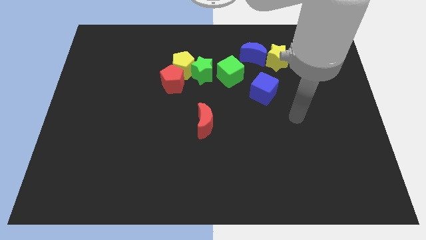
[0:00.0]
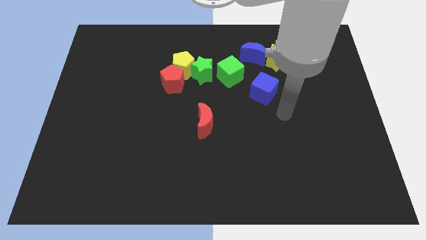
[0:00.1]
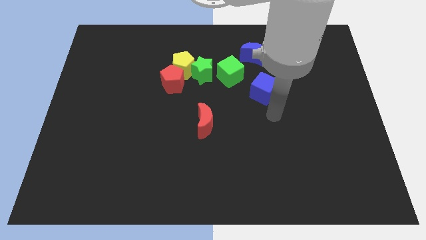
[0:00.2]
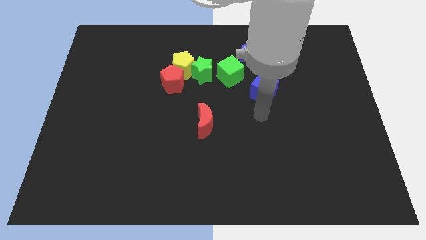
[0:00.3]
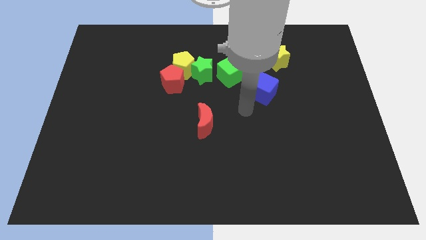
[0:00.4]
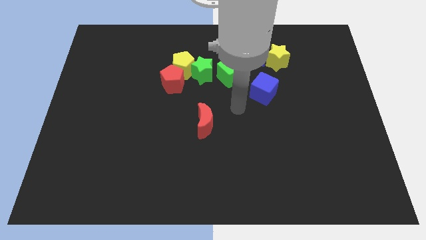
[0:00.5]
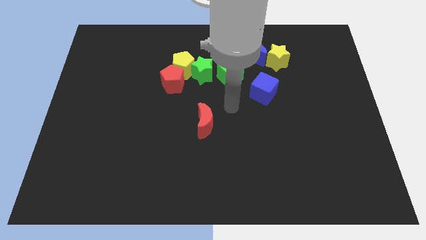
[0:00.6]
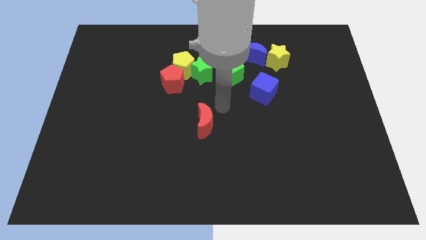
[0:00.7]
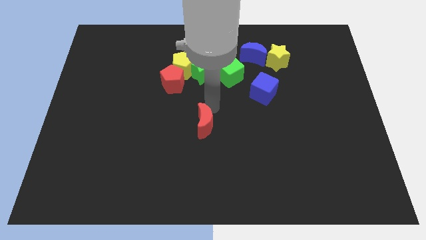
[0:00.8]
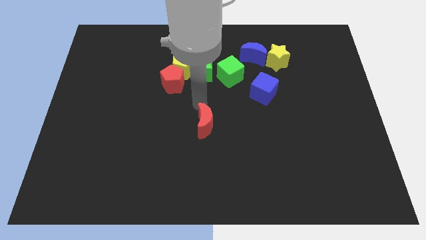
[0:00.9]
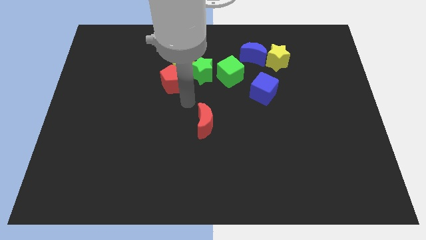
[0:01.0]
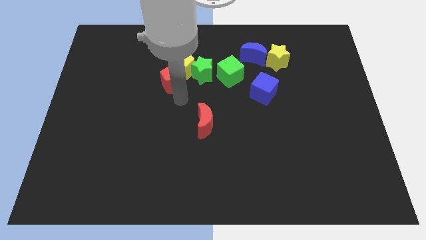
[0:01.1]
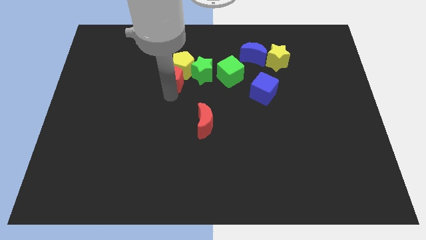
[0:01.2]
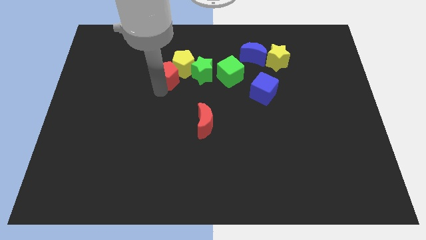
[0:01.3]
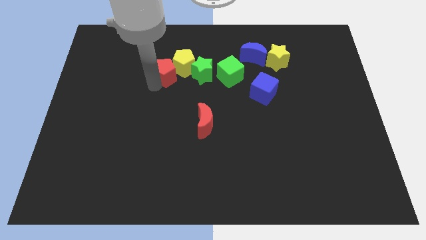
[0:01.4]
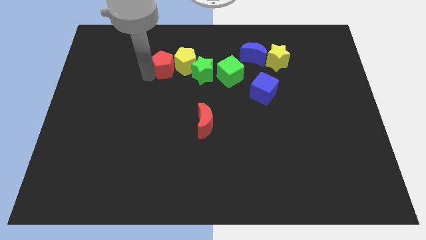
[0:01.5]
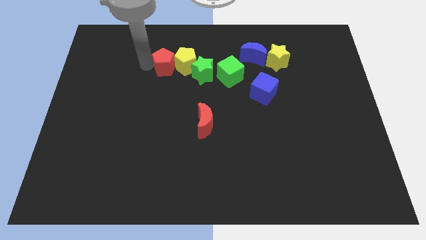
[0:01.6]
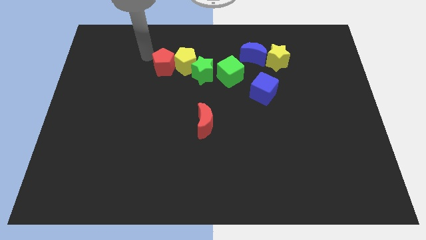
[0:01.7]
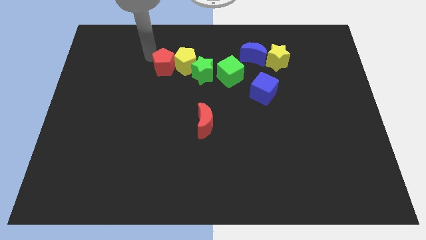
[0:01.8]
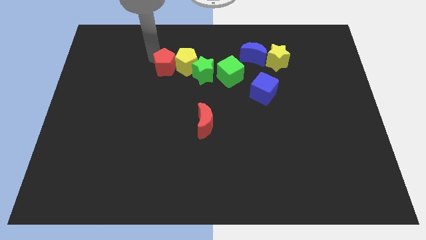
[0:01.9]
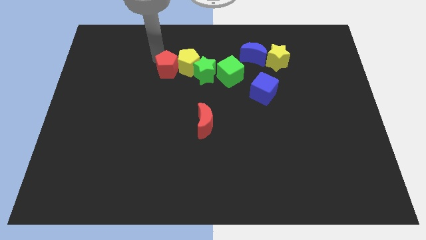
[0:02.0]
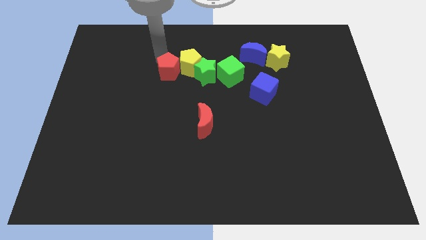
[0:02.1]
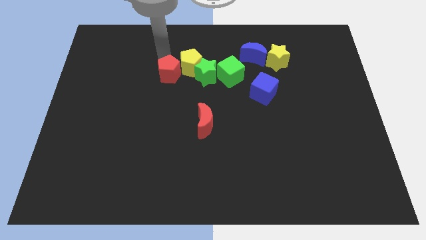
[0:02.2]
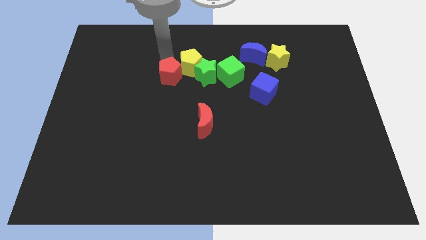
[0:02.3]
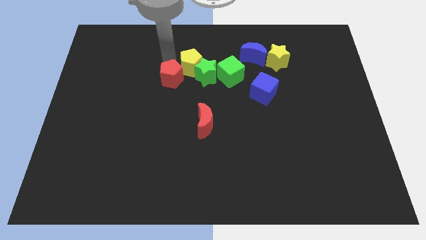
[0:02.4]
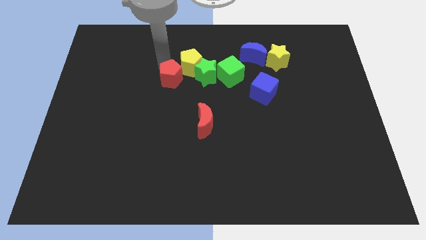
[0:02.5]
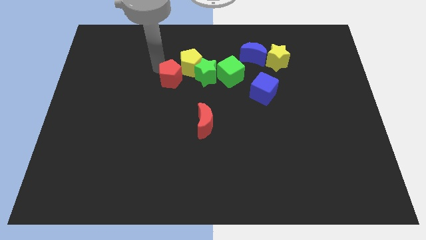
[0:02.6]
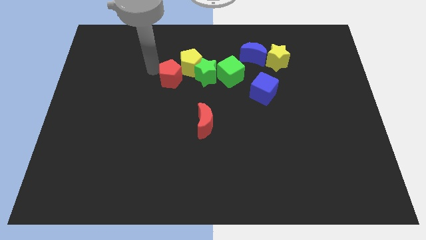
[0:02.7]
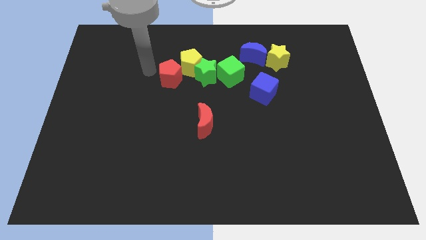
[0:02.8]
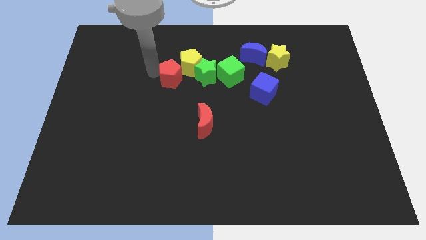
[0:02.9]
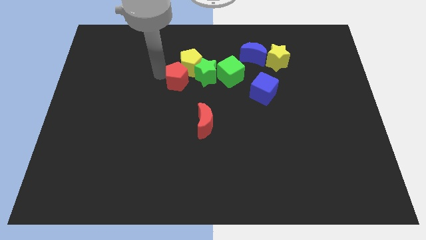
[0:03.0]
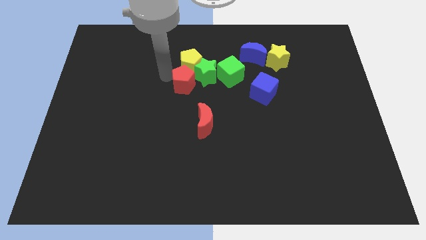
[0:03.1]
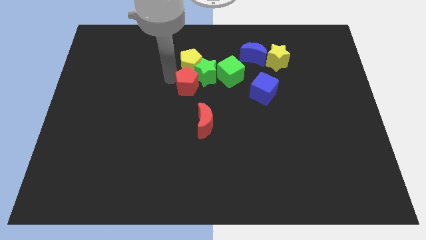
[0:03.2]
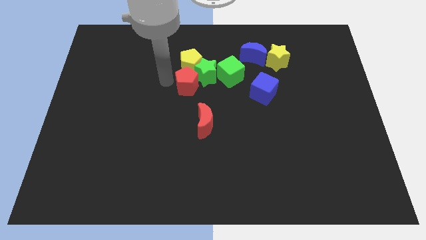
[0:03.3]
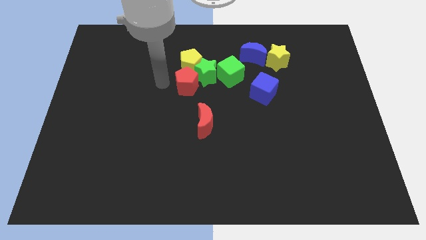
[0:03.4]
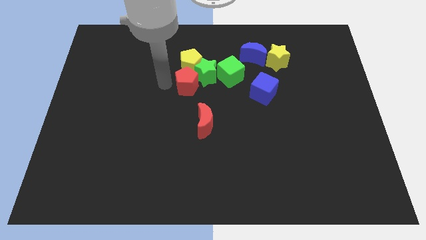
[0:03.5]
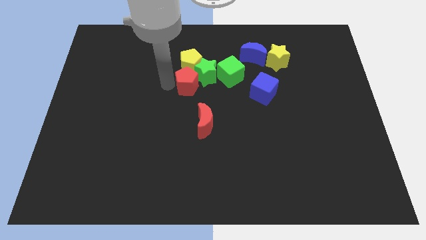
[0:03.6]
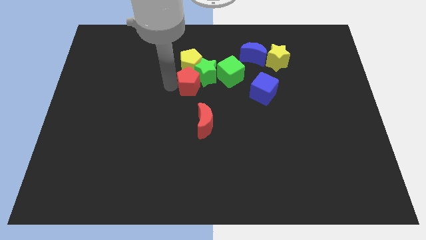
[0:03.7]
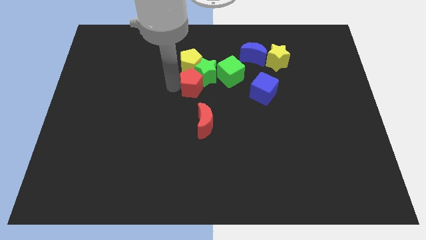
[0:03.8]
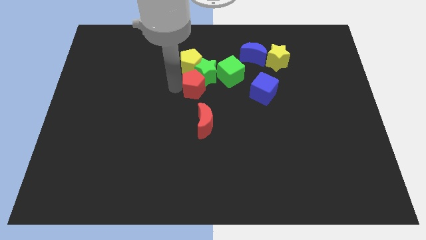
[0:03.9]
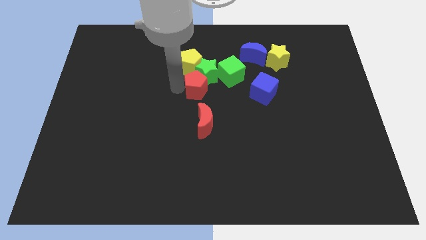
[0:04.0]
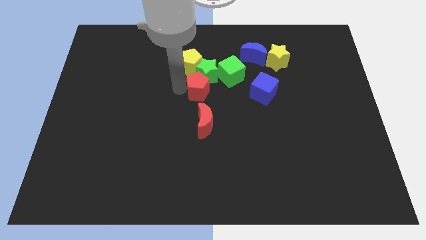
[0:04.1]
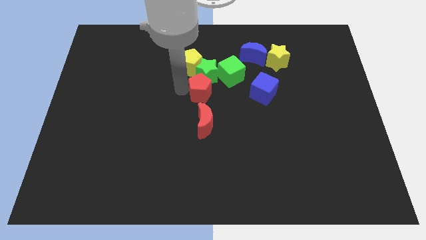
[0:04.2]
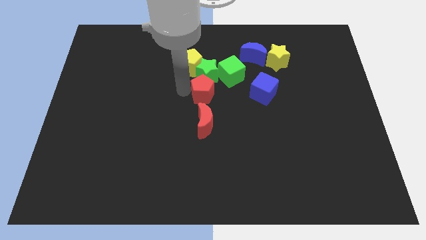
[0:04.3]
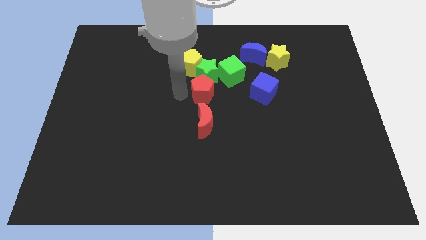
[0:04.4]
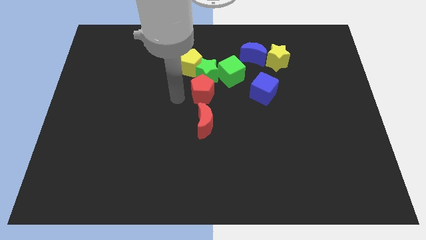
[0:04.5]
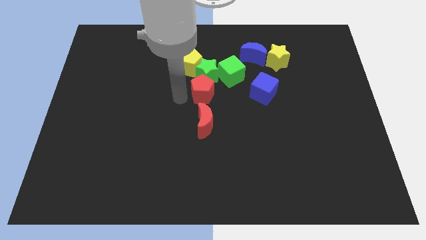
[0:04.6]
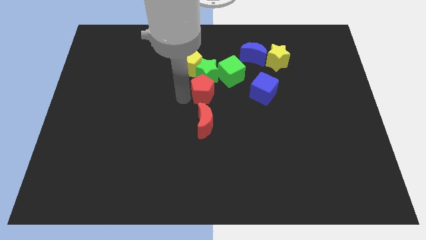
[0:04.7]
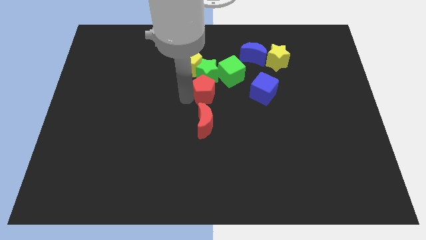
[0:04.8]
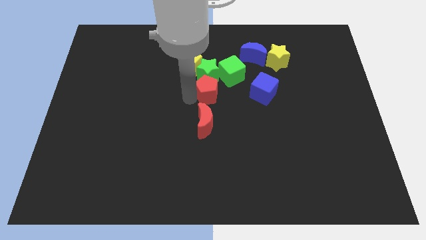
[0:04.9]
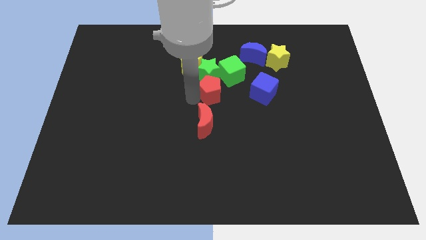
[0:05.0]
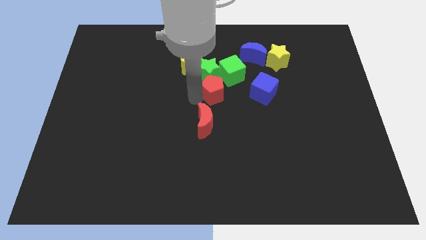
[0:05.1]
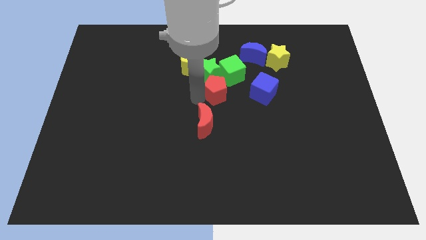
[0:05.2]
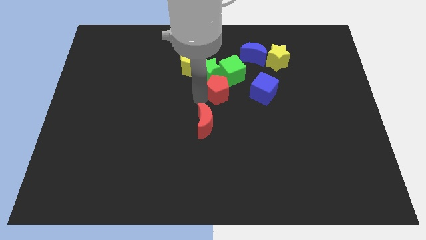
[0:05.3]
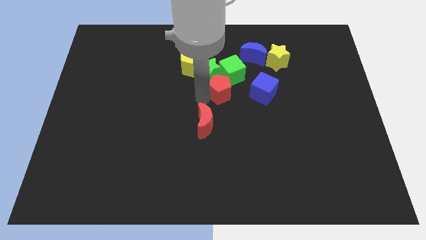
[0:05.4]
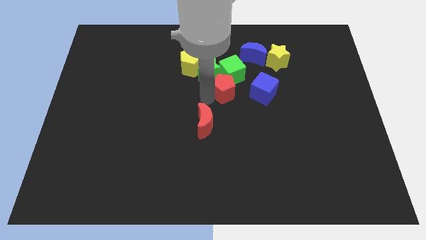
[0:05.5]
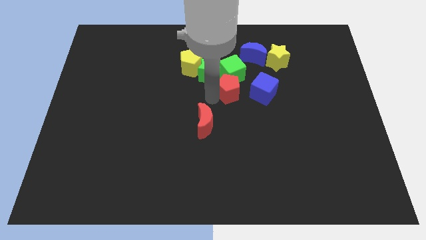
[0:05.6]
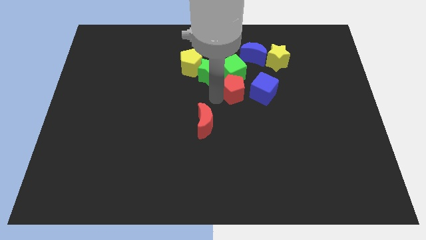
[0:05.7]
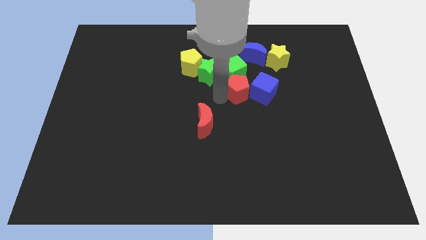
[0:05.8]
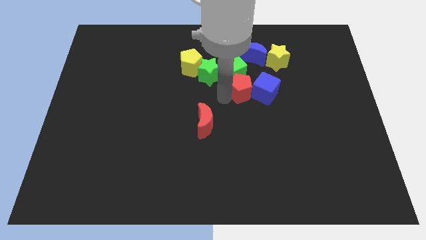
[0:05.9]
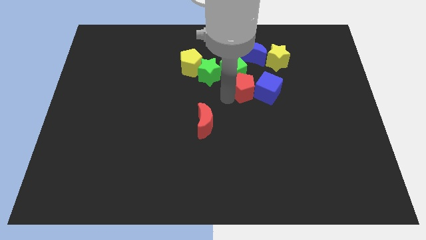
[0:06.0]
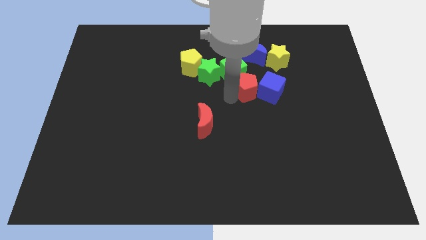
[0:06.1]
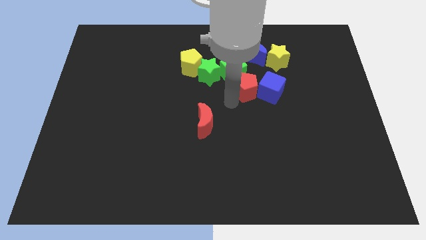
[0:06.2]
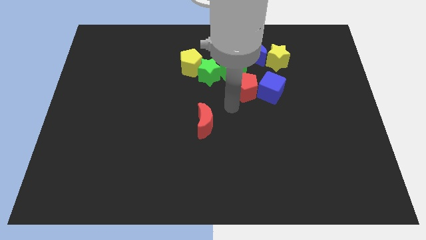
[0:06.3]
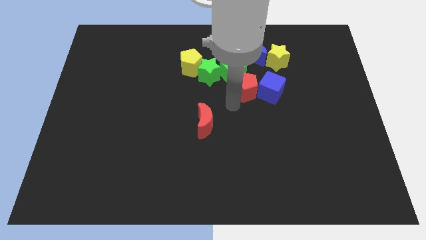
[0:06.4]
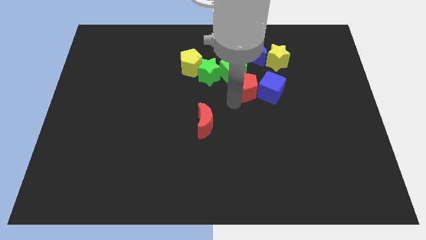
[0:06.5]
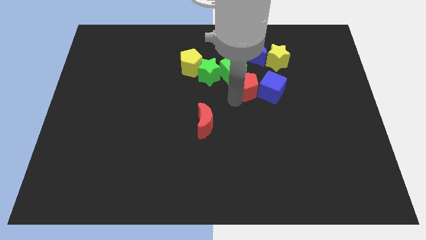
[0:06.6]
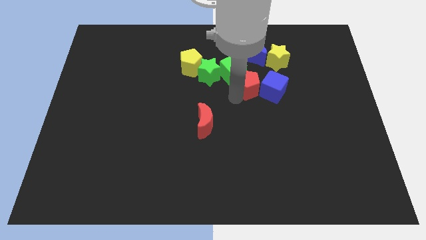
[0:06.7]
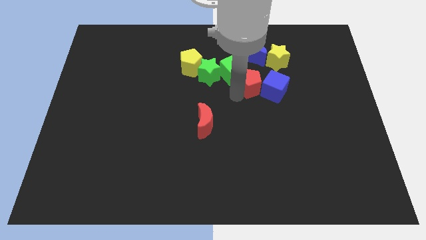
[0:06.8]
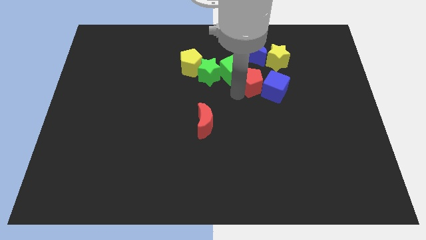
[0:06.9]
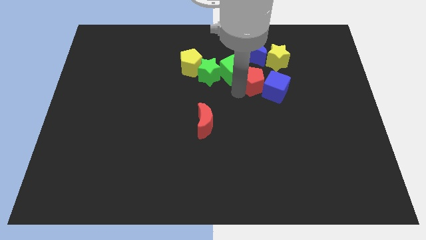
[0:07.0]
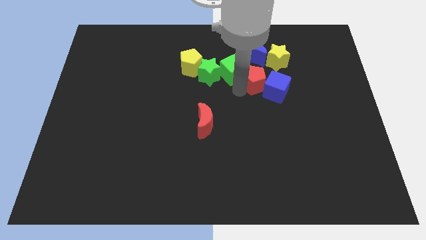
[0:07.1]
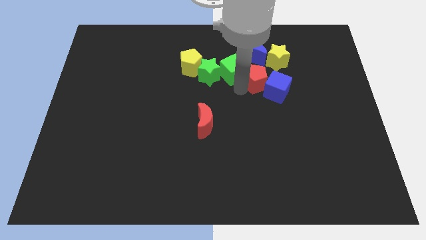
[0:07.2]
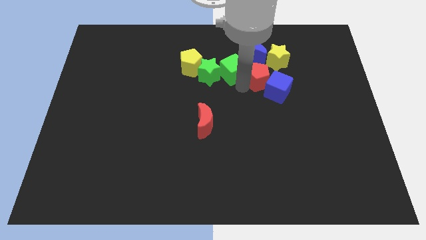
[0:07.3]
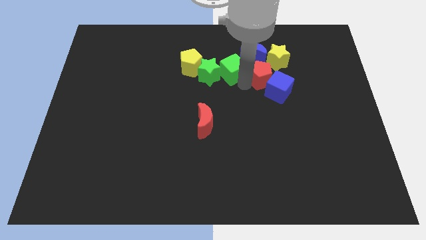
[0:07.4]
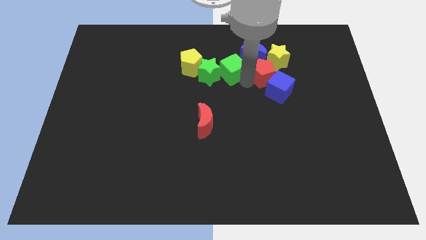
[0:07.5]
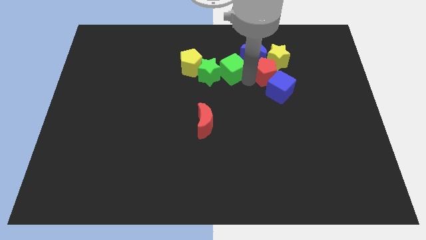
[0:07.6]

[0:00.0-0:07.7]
slide the red pentagon close to the yellow star
